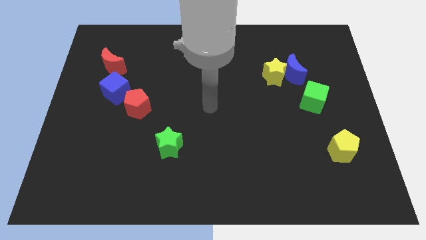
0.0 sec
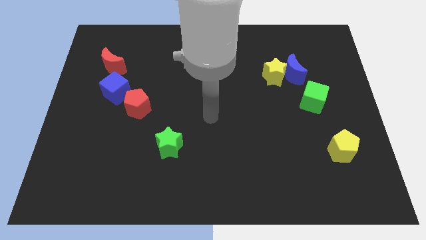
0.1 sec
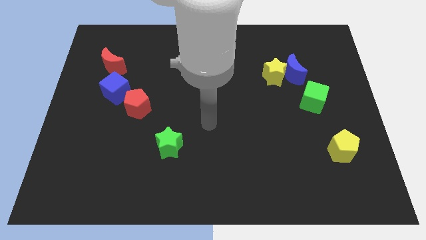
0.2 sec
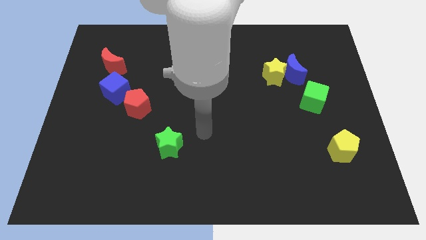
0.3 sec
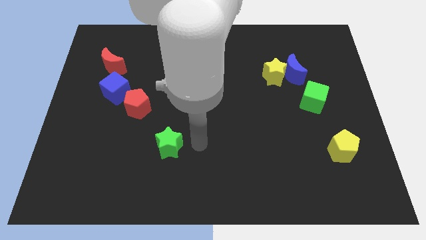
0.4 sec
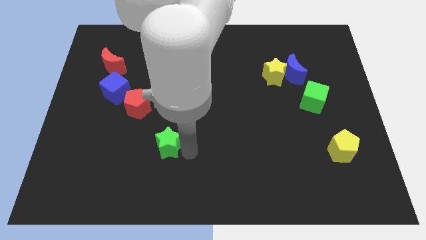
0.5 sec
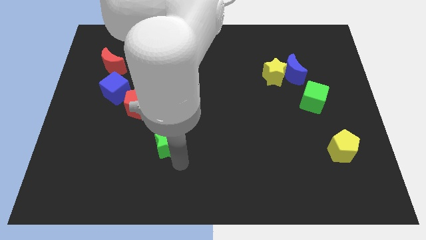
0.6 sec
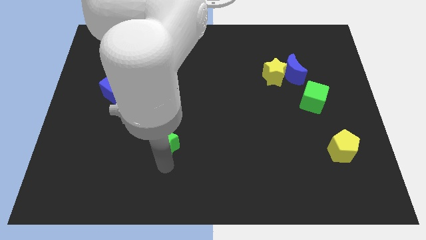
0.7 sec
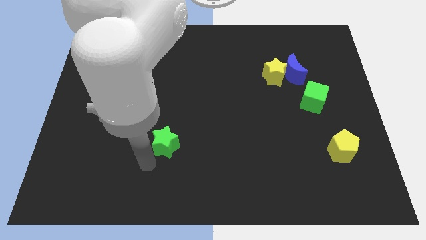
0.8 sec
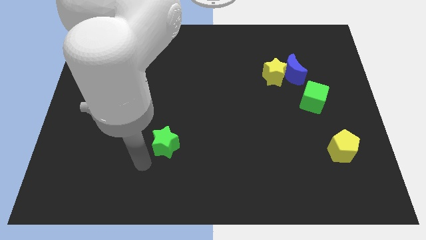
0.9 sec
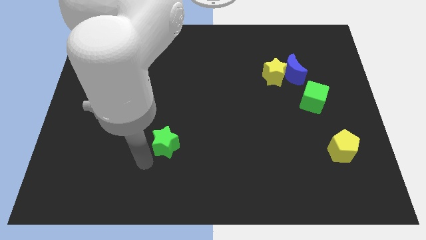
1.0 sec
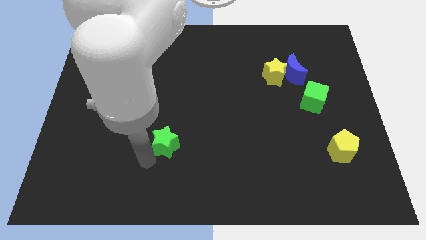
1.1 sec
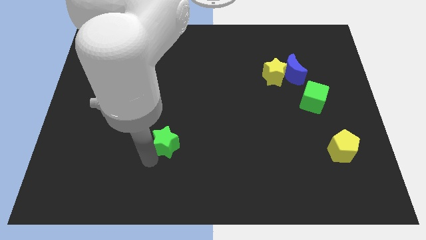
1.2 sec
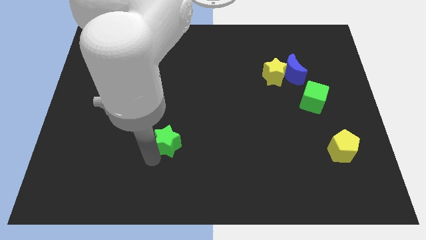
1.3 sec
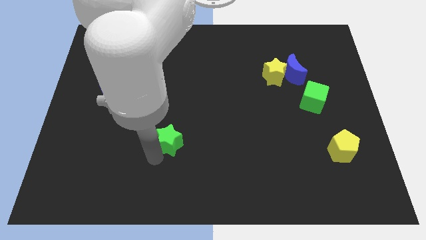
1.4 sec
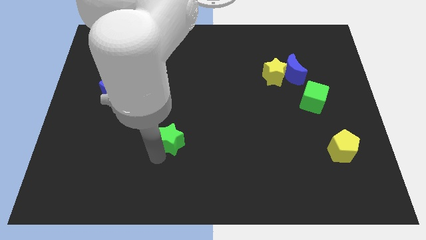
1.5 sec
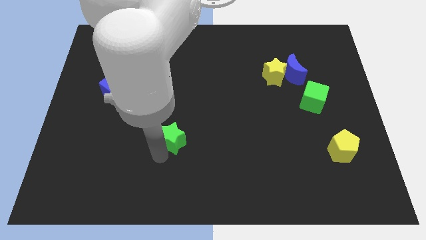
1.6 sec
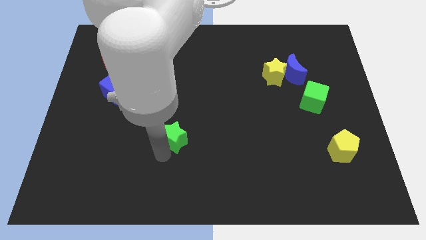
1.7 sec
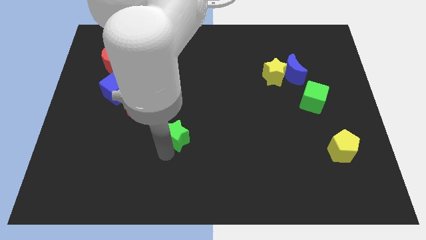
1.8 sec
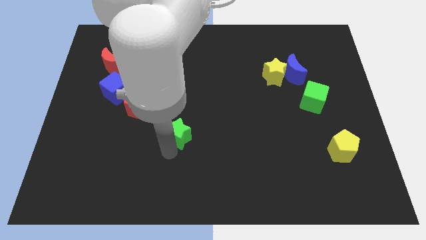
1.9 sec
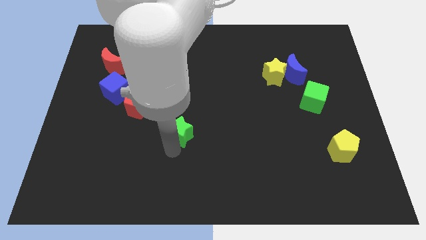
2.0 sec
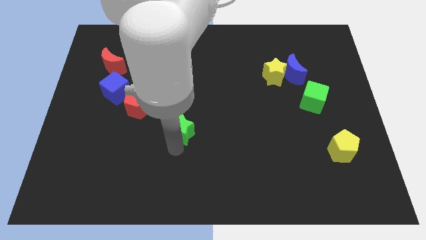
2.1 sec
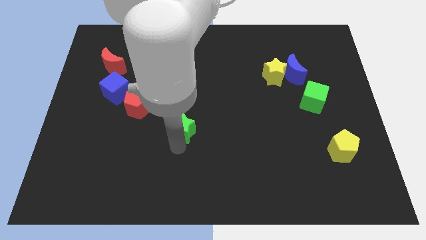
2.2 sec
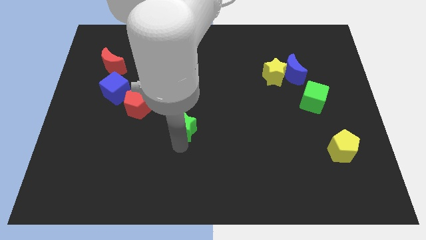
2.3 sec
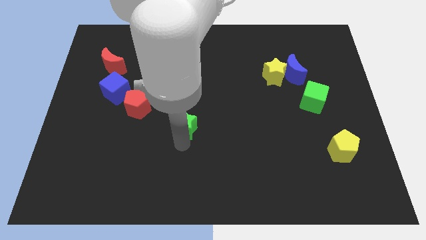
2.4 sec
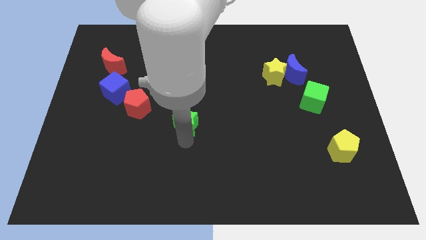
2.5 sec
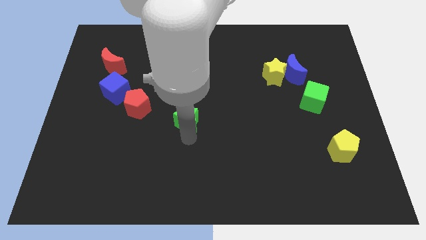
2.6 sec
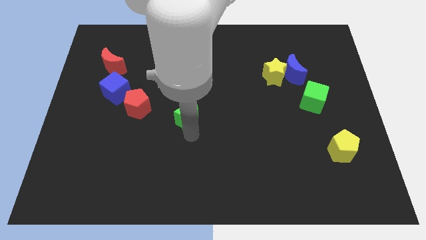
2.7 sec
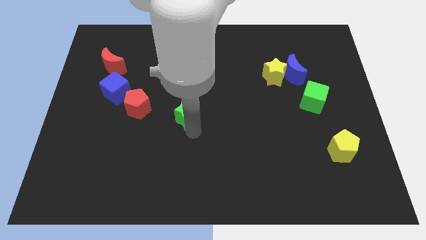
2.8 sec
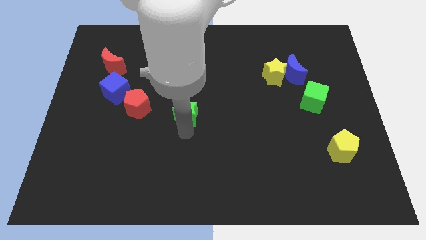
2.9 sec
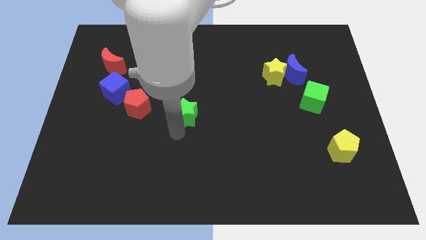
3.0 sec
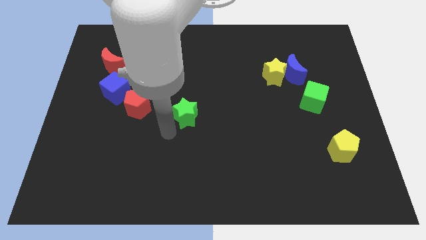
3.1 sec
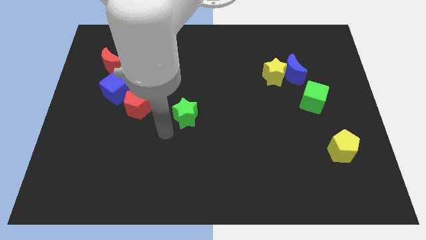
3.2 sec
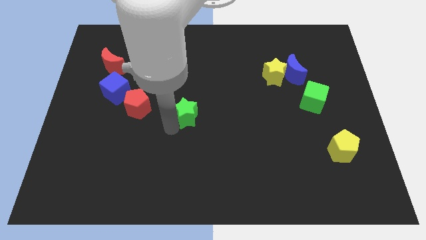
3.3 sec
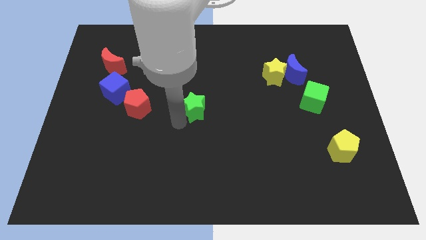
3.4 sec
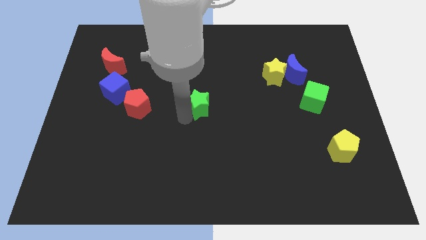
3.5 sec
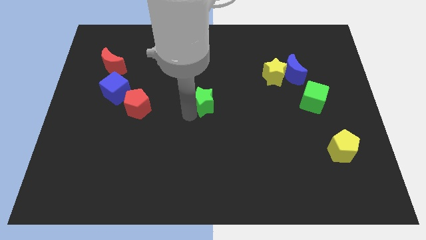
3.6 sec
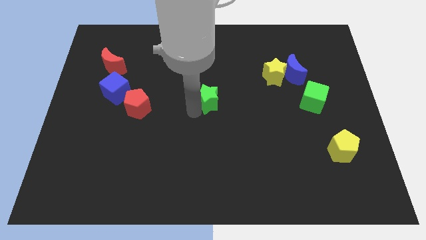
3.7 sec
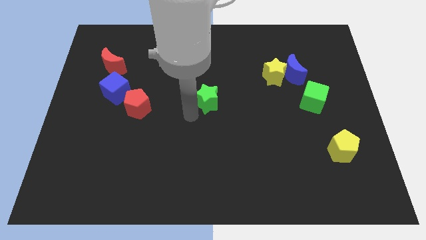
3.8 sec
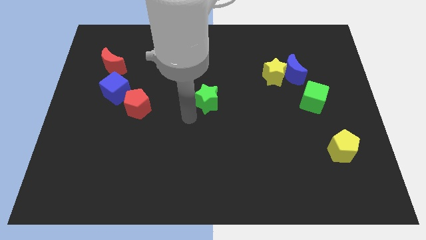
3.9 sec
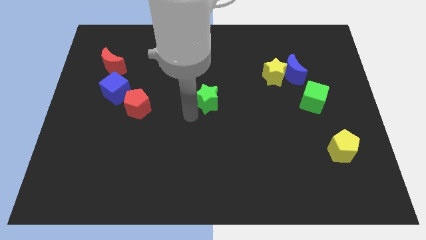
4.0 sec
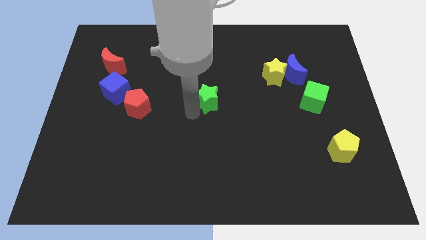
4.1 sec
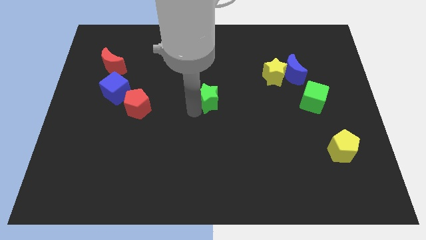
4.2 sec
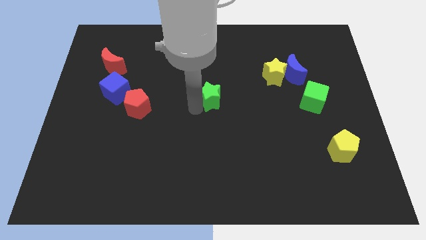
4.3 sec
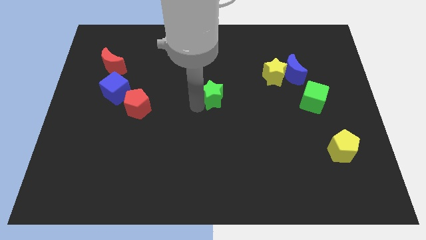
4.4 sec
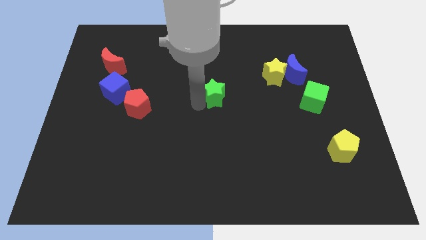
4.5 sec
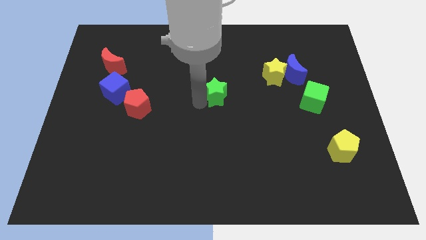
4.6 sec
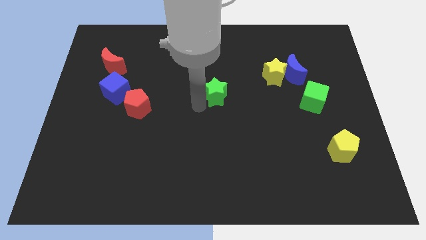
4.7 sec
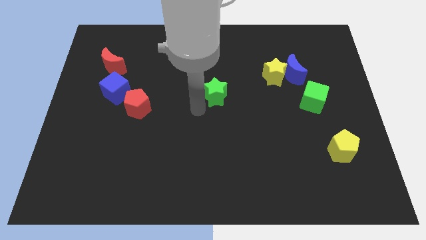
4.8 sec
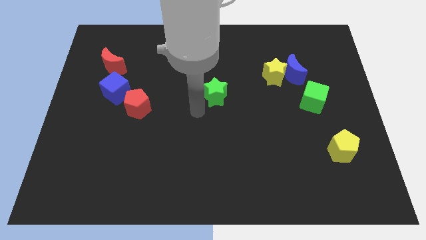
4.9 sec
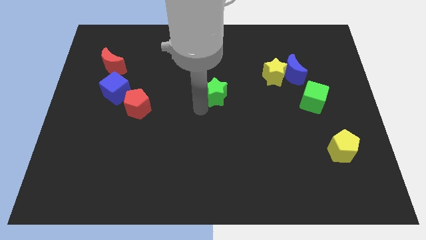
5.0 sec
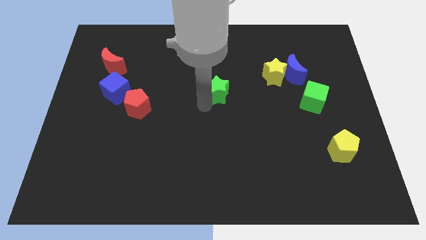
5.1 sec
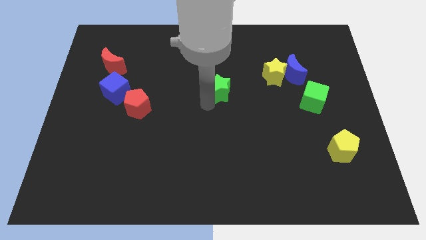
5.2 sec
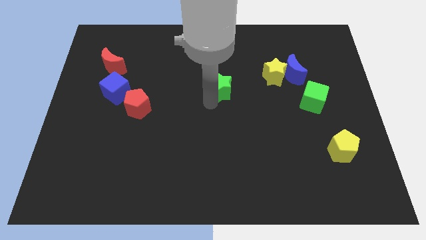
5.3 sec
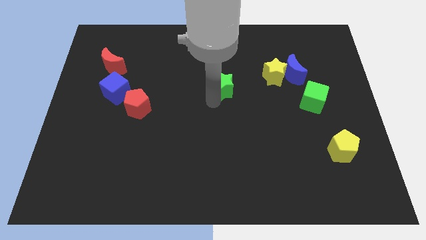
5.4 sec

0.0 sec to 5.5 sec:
put the green star just left of the yellow star

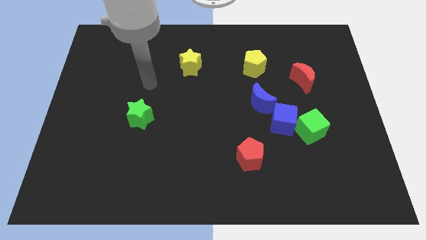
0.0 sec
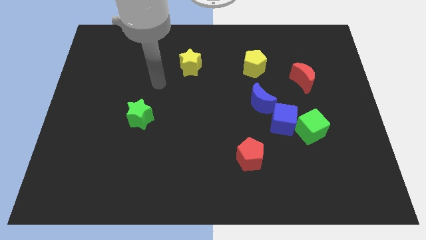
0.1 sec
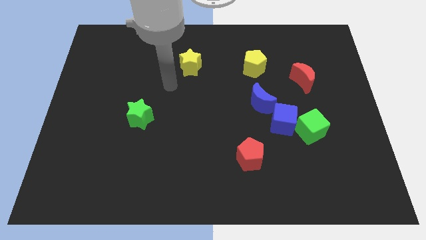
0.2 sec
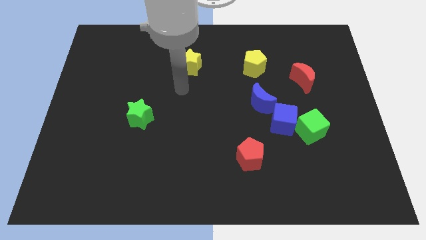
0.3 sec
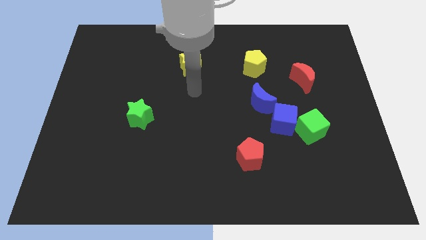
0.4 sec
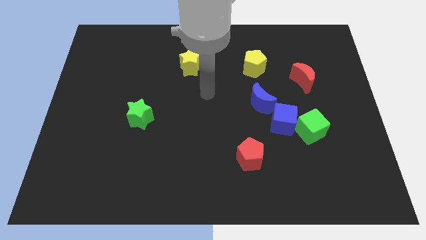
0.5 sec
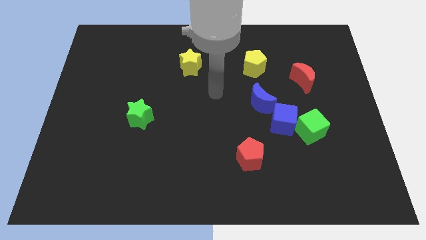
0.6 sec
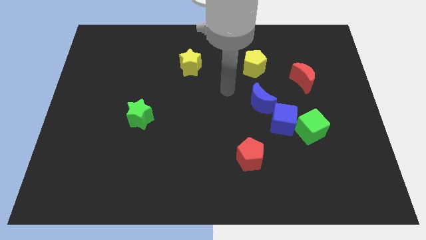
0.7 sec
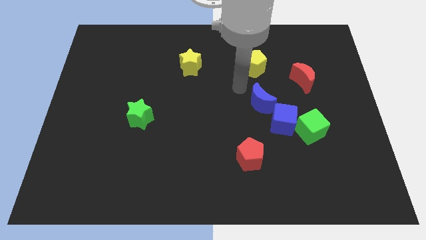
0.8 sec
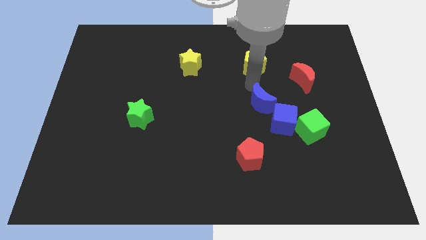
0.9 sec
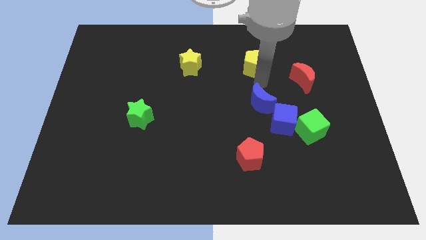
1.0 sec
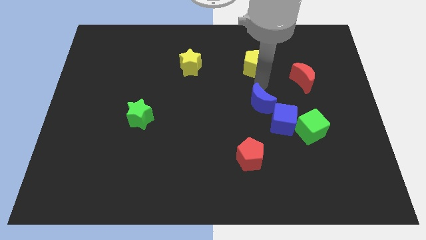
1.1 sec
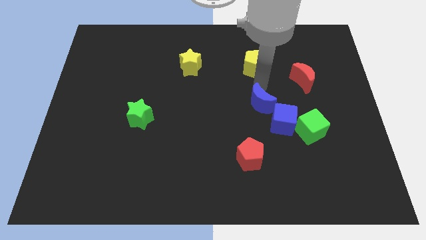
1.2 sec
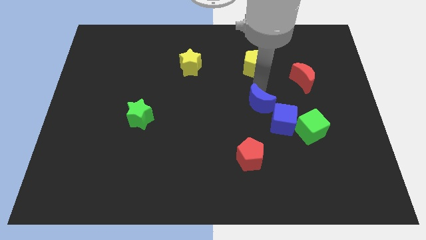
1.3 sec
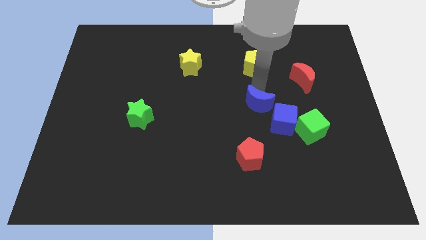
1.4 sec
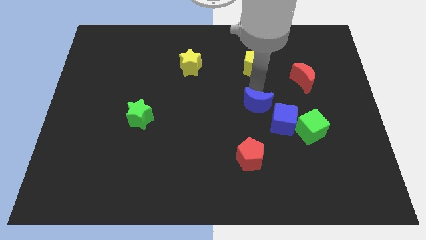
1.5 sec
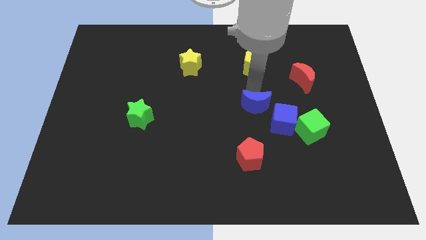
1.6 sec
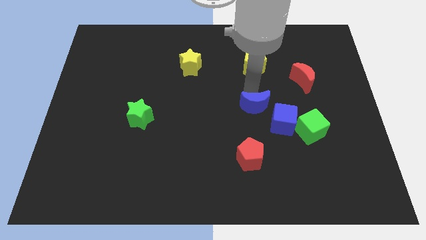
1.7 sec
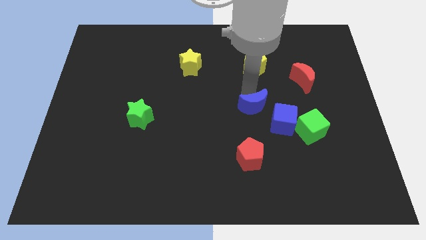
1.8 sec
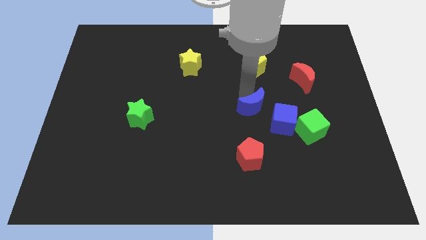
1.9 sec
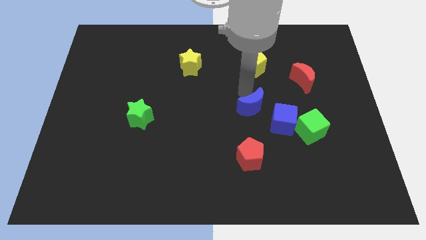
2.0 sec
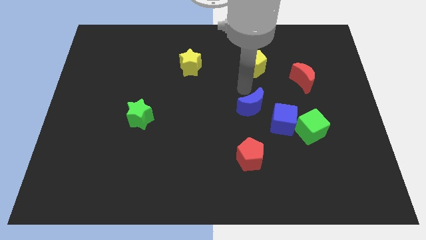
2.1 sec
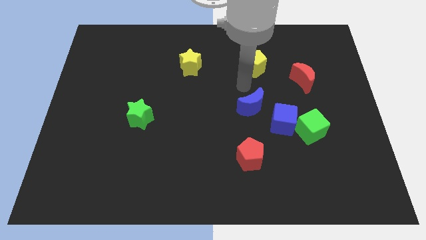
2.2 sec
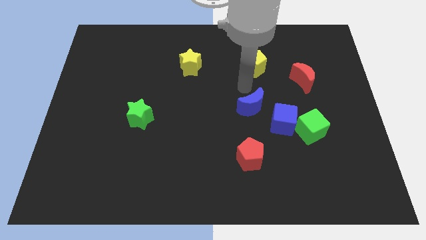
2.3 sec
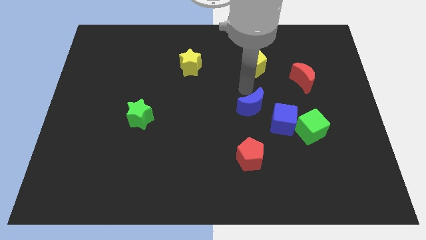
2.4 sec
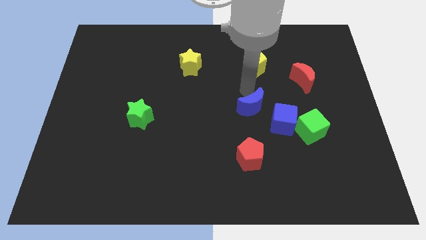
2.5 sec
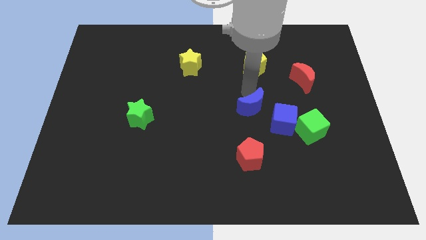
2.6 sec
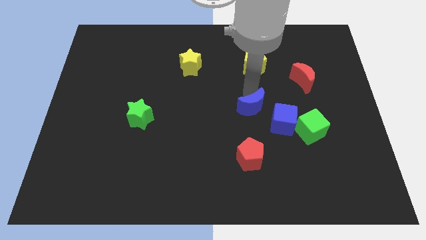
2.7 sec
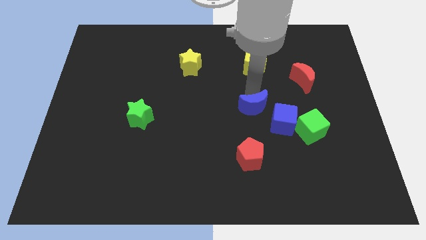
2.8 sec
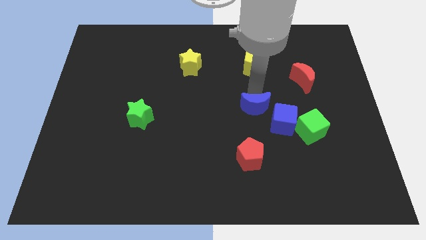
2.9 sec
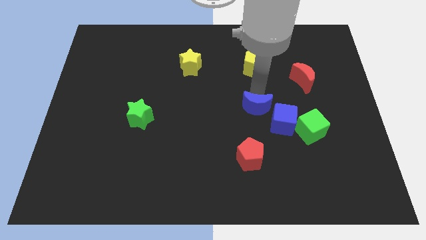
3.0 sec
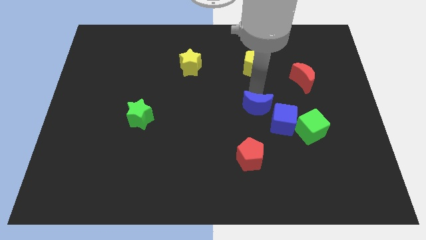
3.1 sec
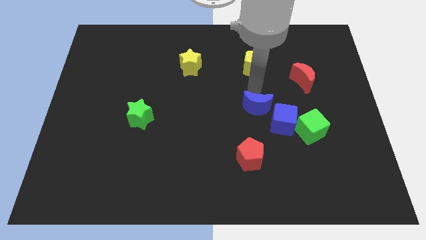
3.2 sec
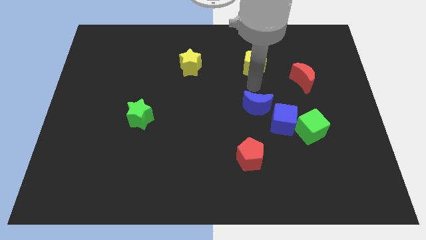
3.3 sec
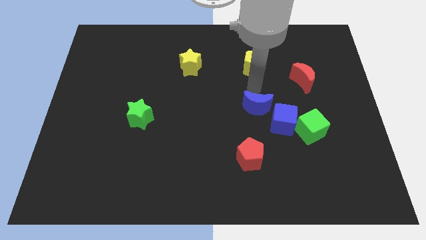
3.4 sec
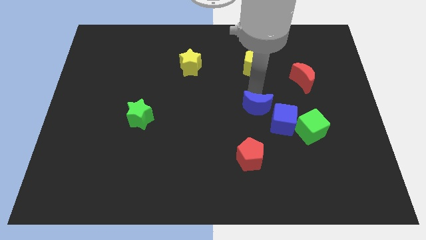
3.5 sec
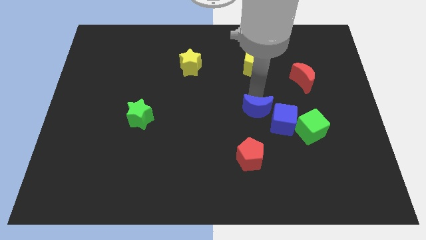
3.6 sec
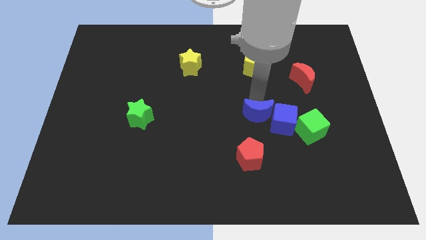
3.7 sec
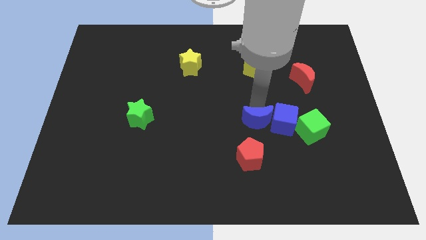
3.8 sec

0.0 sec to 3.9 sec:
slide the blue moon diagonally down and to the left of the blue cube
